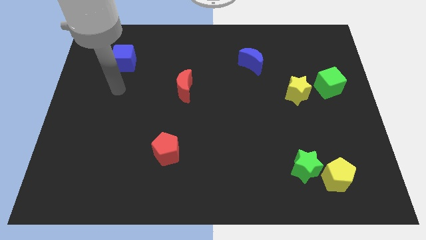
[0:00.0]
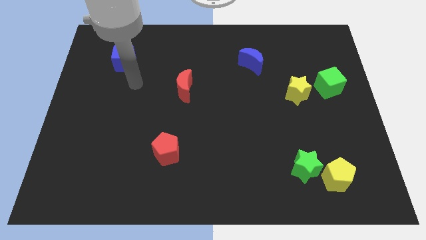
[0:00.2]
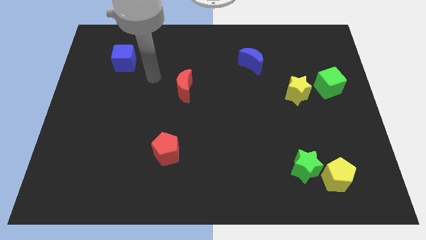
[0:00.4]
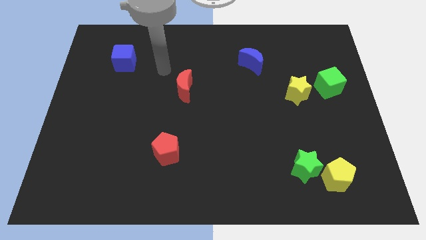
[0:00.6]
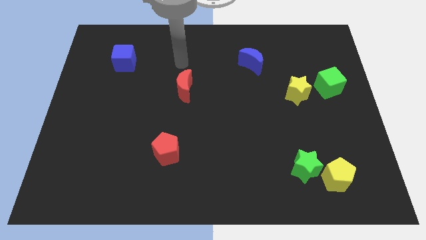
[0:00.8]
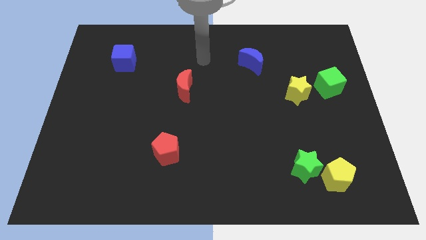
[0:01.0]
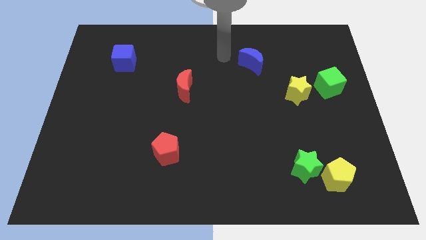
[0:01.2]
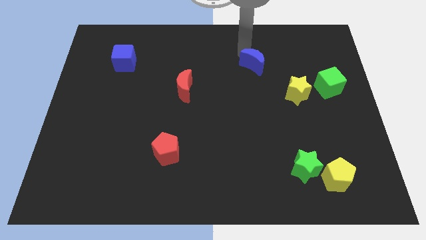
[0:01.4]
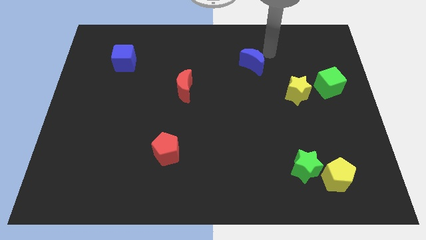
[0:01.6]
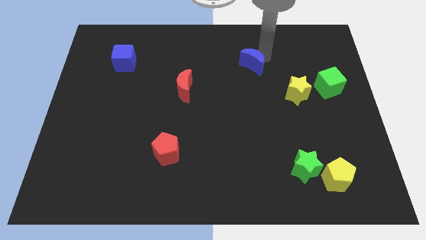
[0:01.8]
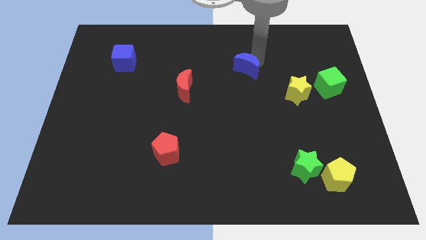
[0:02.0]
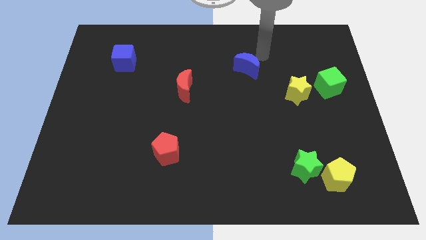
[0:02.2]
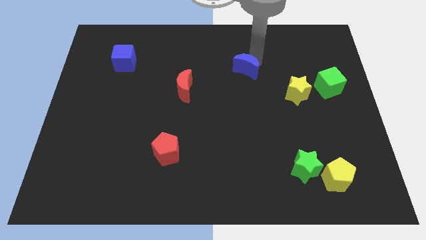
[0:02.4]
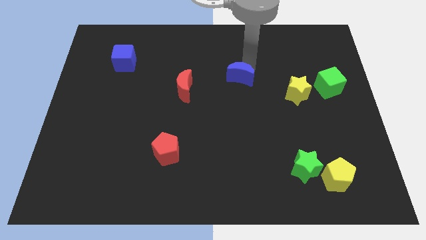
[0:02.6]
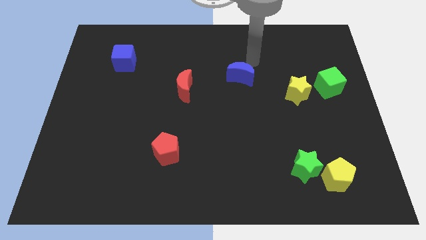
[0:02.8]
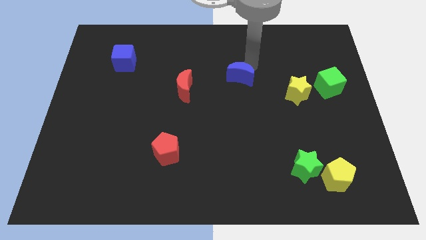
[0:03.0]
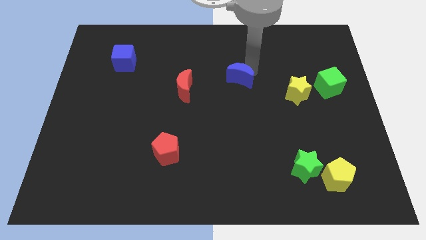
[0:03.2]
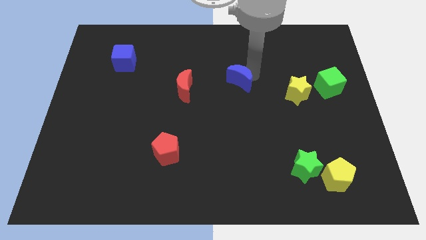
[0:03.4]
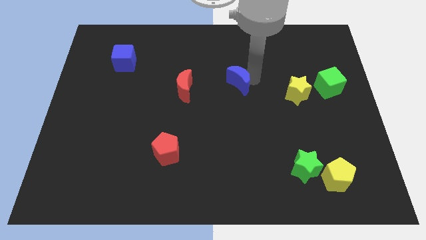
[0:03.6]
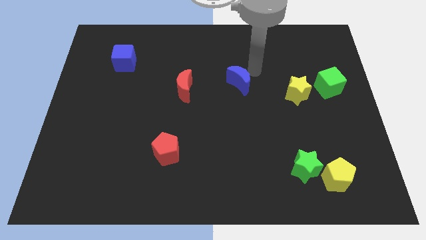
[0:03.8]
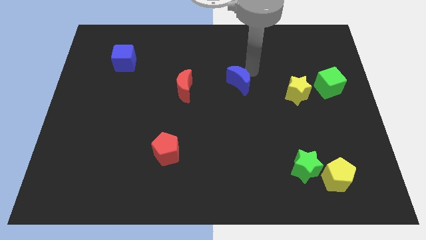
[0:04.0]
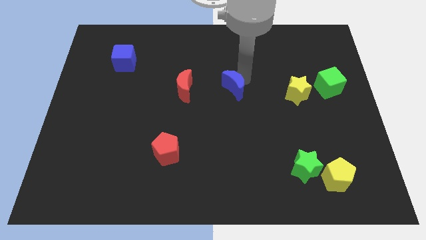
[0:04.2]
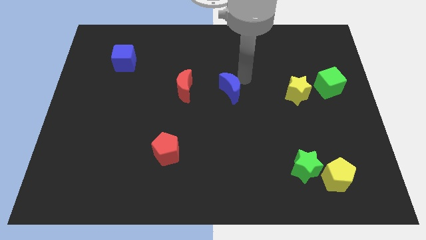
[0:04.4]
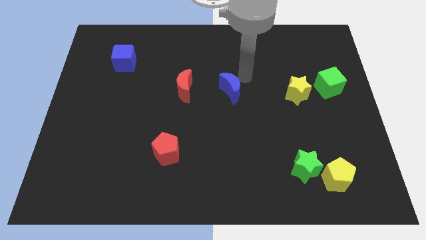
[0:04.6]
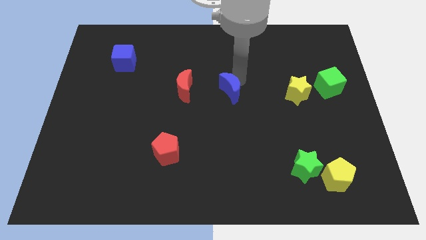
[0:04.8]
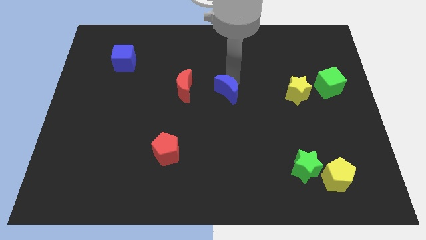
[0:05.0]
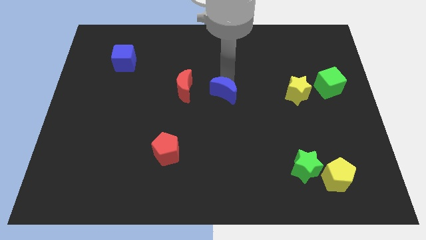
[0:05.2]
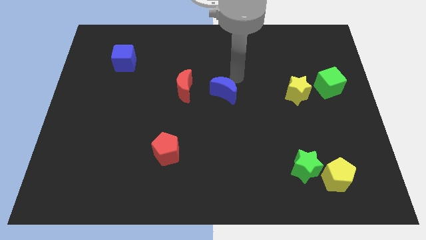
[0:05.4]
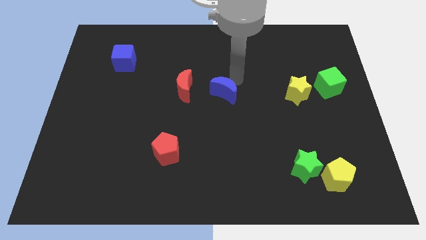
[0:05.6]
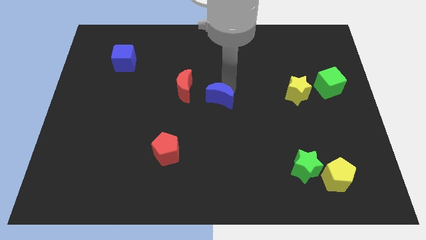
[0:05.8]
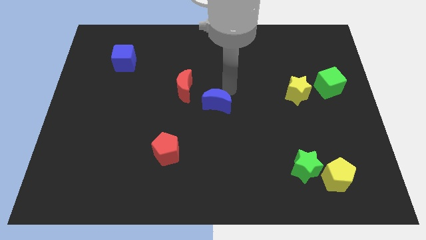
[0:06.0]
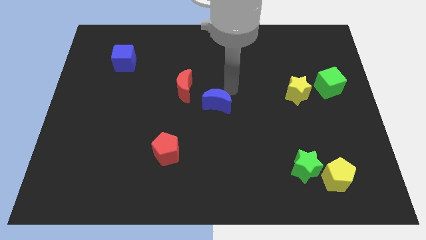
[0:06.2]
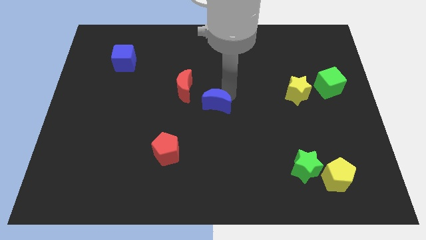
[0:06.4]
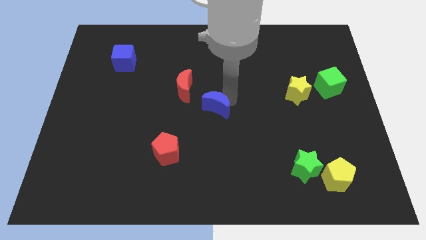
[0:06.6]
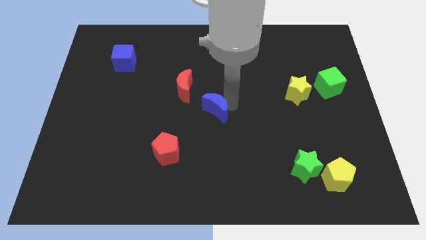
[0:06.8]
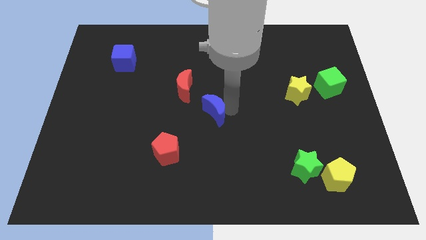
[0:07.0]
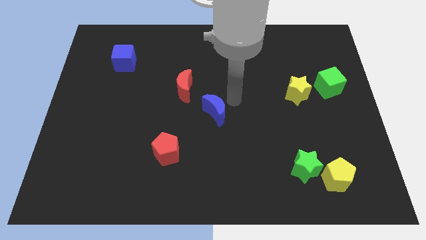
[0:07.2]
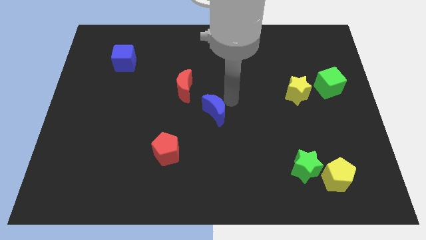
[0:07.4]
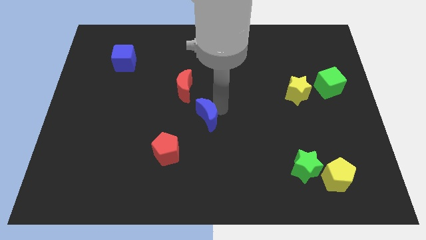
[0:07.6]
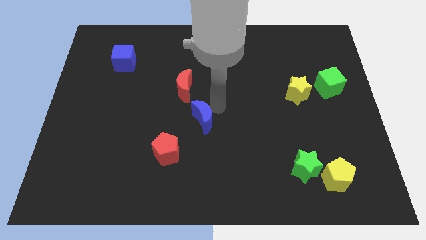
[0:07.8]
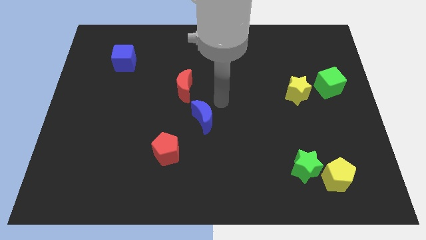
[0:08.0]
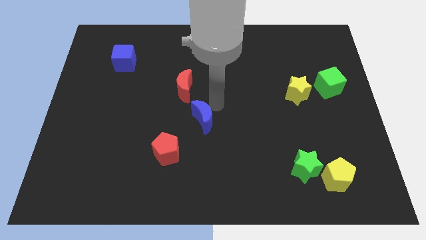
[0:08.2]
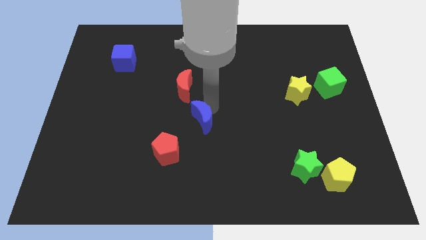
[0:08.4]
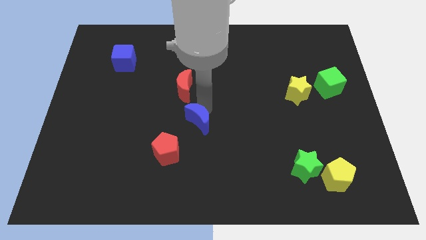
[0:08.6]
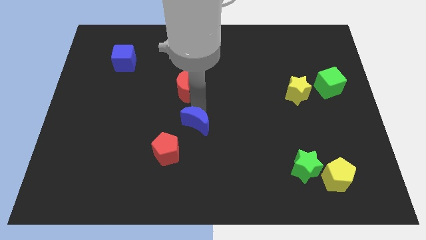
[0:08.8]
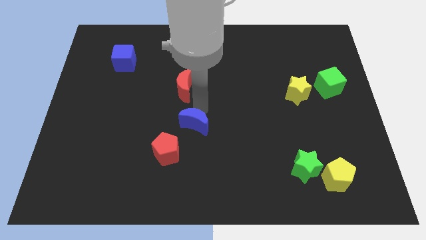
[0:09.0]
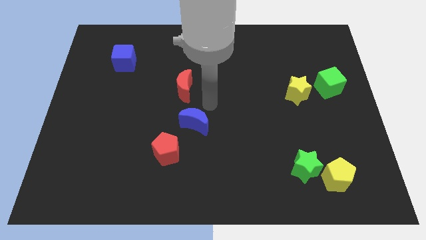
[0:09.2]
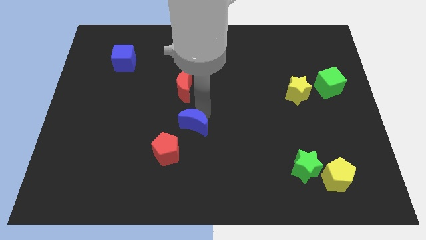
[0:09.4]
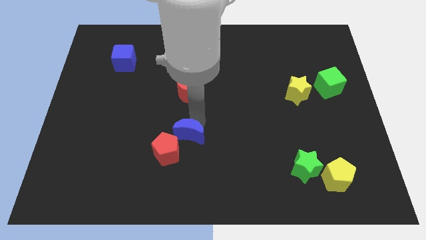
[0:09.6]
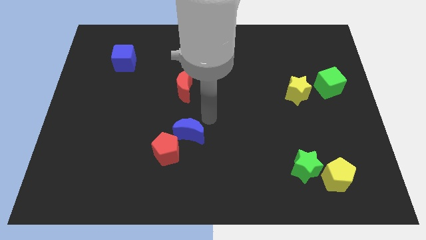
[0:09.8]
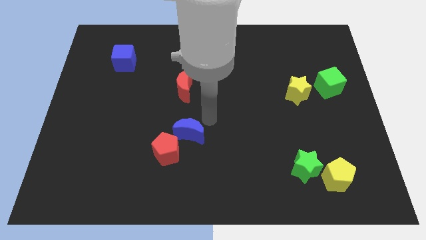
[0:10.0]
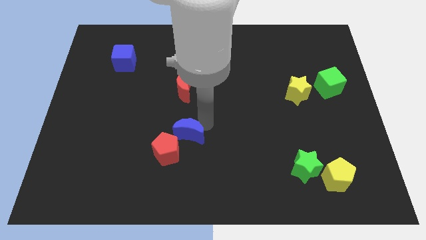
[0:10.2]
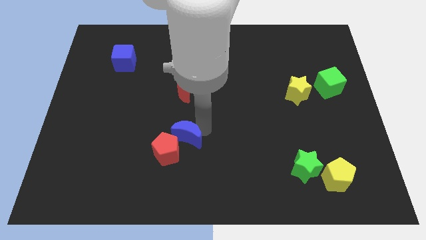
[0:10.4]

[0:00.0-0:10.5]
push the blue moon next to the red pentagon

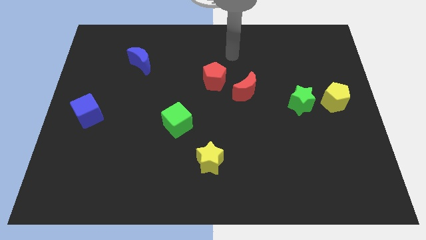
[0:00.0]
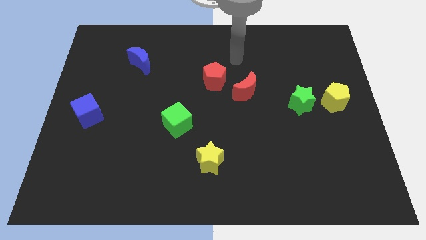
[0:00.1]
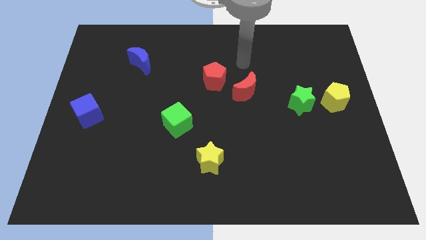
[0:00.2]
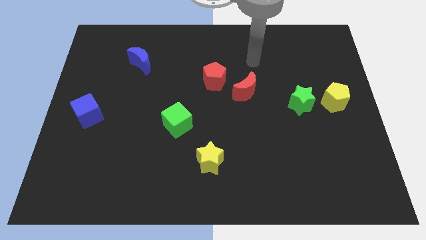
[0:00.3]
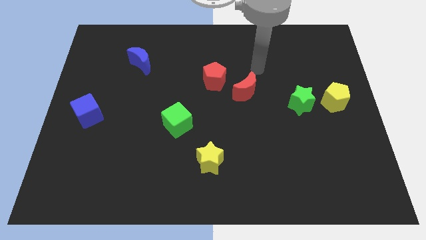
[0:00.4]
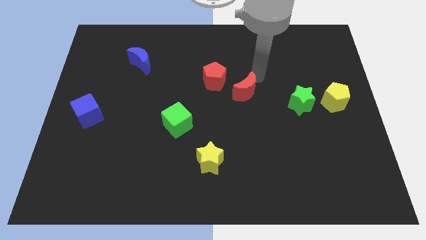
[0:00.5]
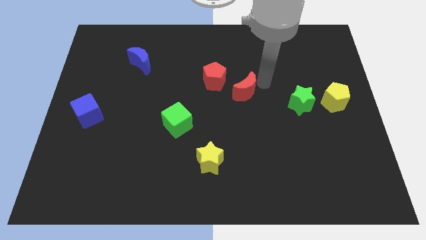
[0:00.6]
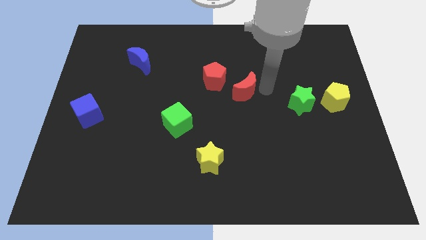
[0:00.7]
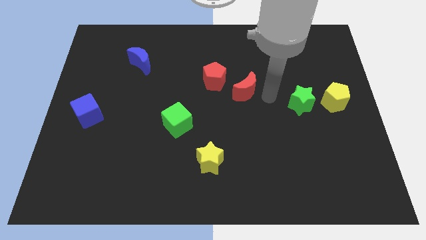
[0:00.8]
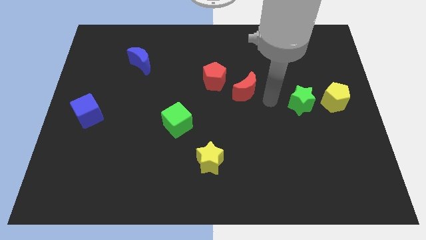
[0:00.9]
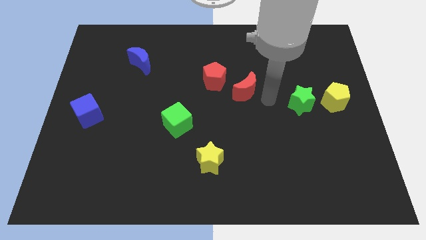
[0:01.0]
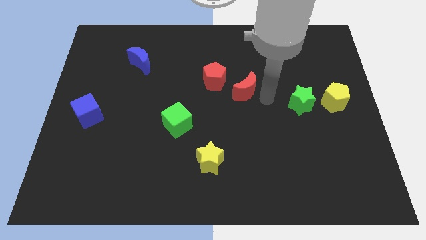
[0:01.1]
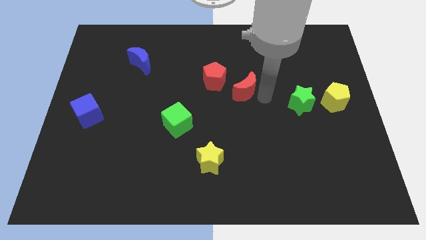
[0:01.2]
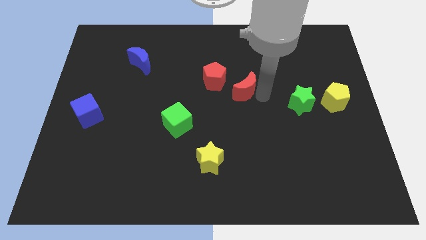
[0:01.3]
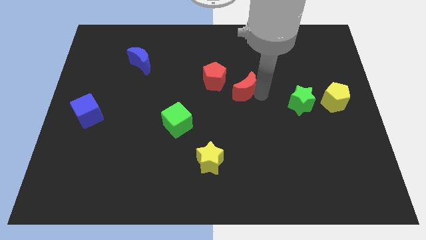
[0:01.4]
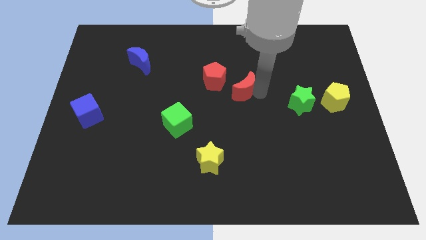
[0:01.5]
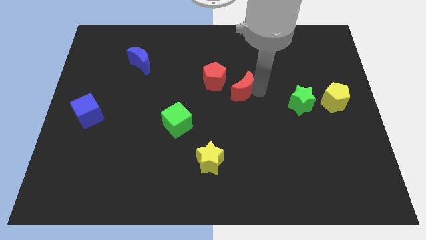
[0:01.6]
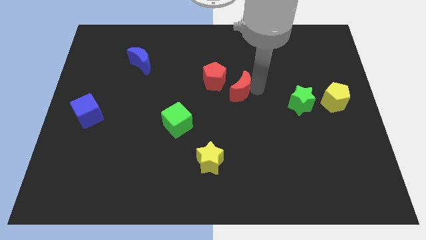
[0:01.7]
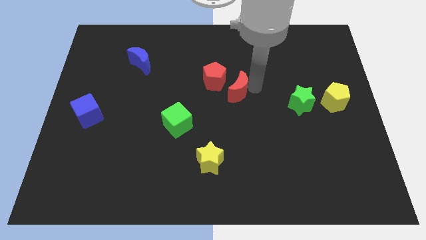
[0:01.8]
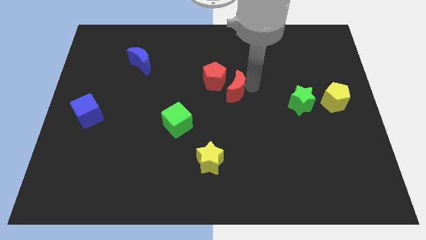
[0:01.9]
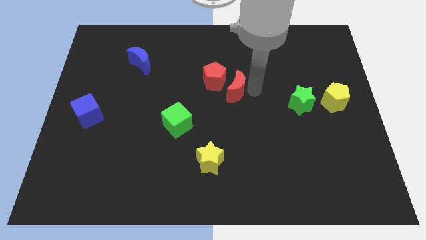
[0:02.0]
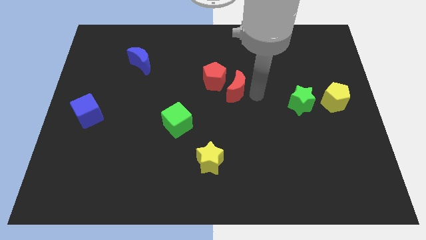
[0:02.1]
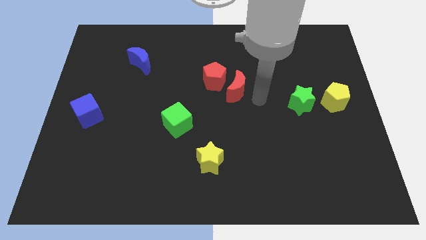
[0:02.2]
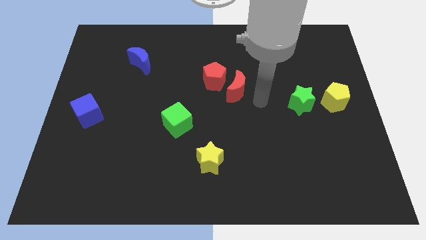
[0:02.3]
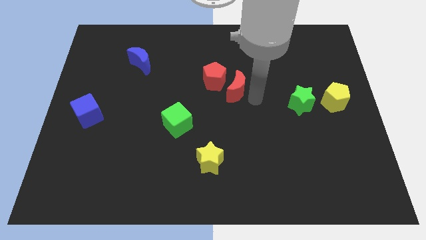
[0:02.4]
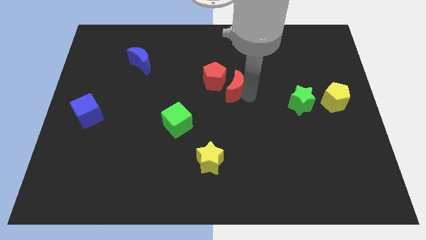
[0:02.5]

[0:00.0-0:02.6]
slide the red moon close to the red pentagon
